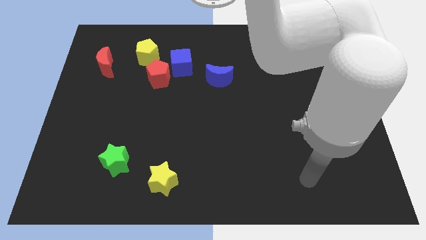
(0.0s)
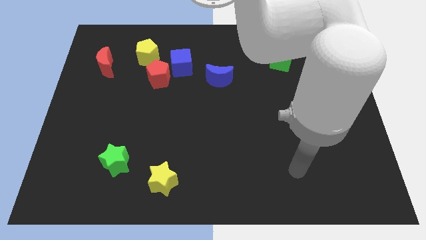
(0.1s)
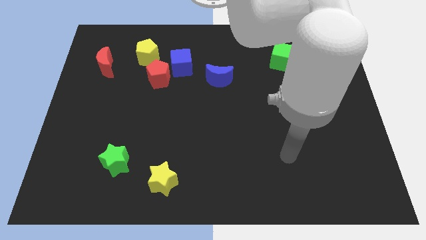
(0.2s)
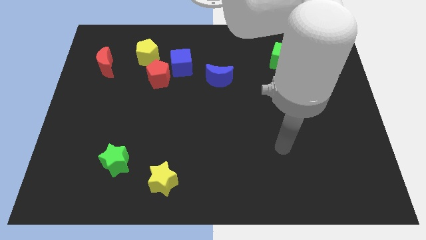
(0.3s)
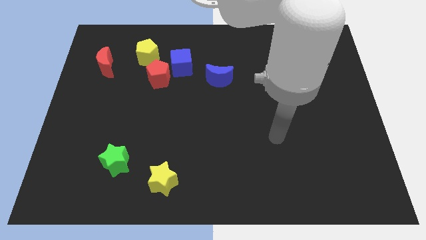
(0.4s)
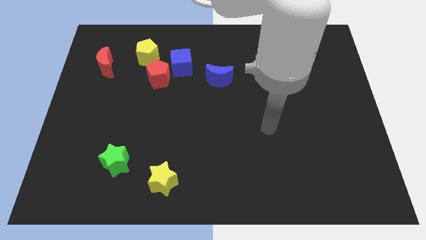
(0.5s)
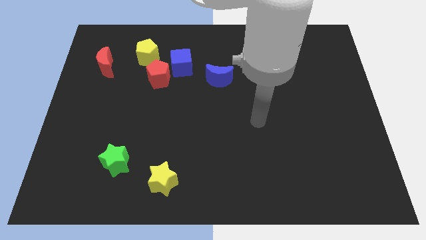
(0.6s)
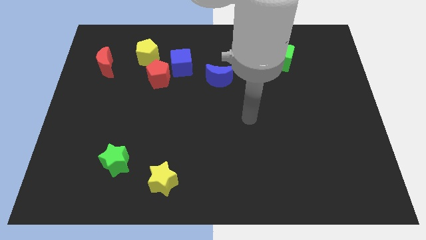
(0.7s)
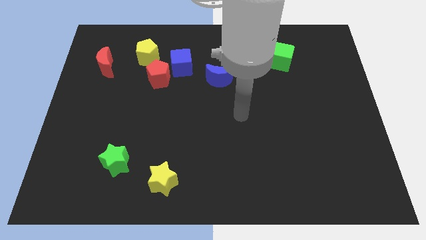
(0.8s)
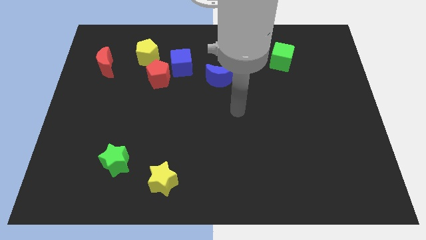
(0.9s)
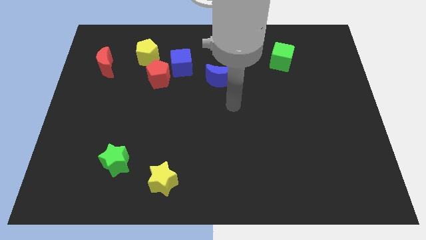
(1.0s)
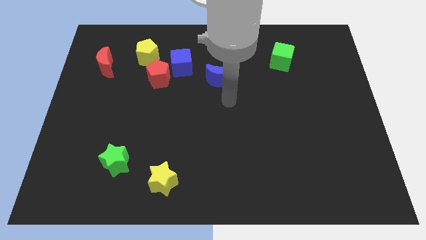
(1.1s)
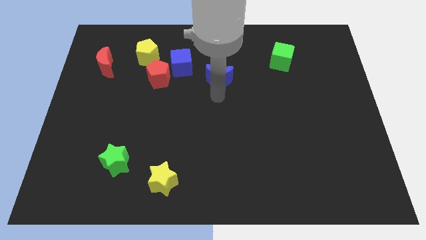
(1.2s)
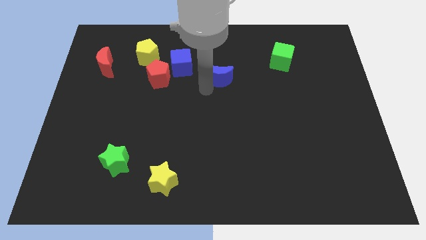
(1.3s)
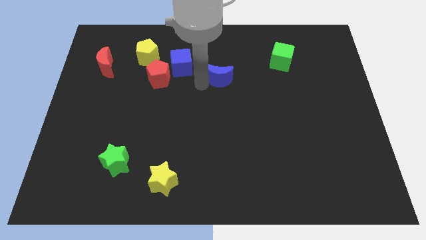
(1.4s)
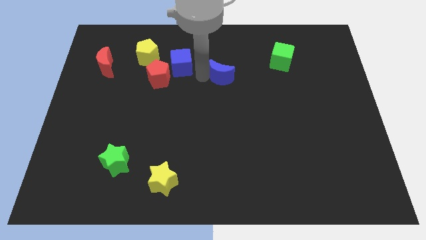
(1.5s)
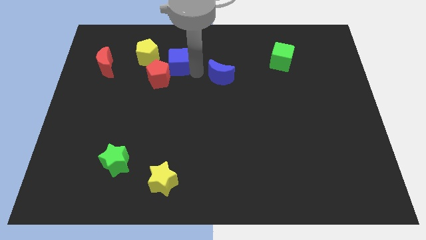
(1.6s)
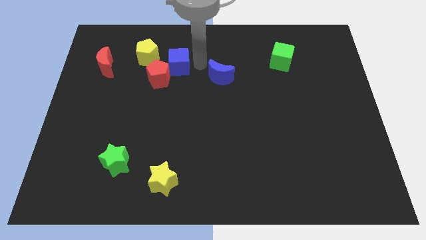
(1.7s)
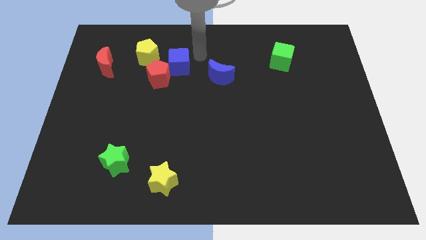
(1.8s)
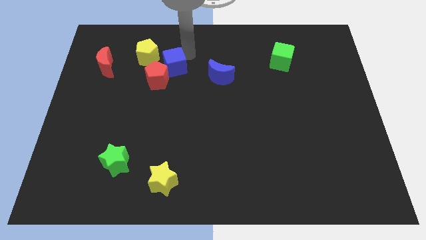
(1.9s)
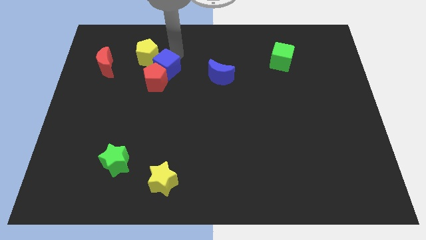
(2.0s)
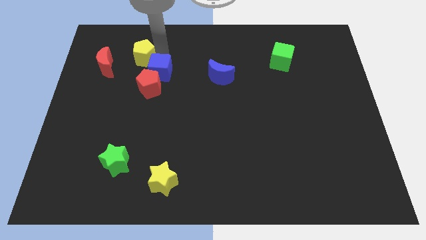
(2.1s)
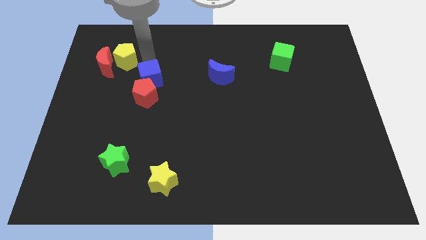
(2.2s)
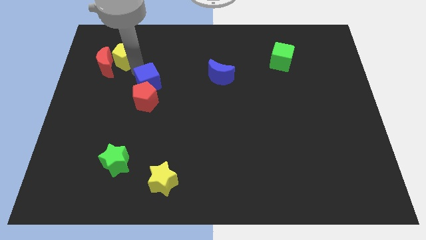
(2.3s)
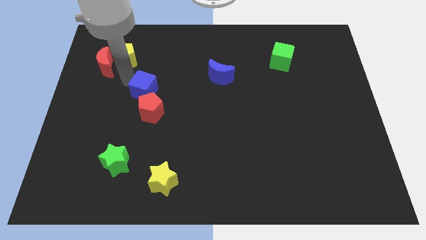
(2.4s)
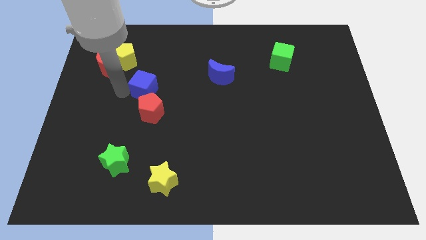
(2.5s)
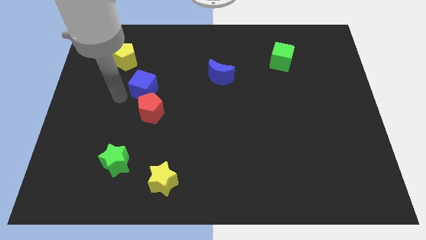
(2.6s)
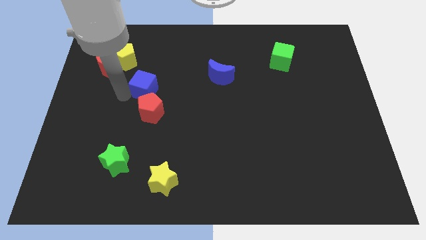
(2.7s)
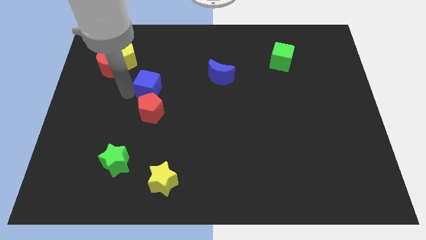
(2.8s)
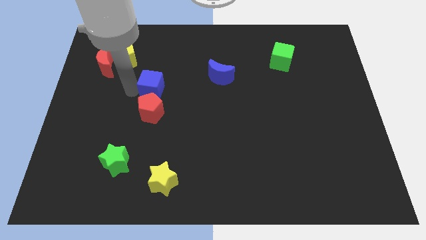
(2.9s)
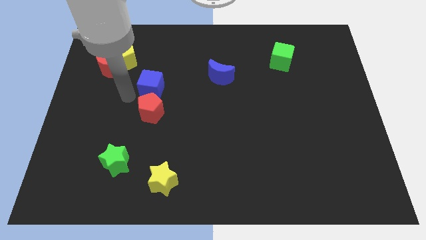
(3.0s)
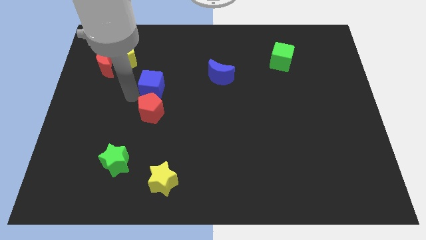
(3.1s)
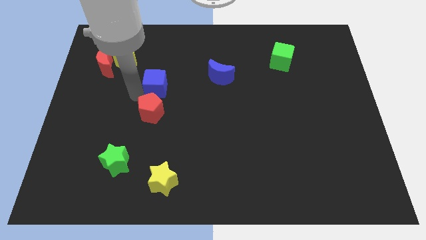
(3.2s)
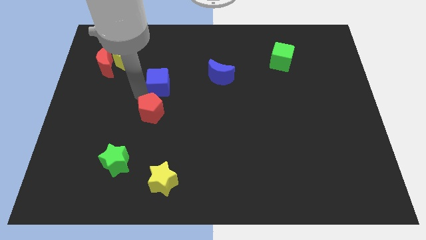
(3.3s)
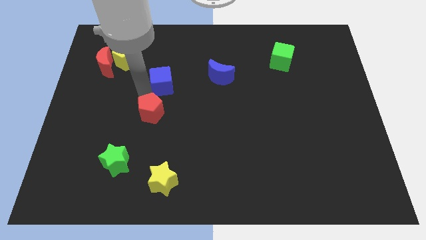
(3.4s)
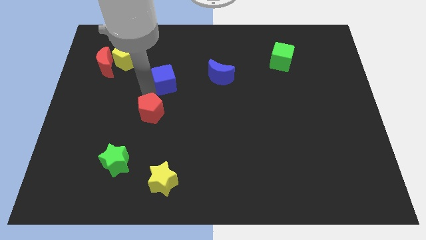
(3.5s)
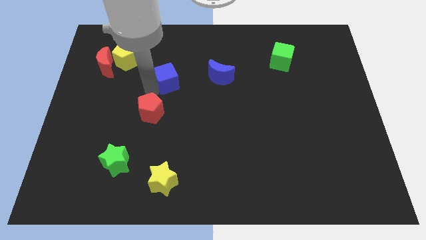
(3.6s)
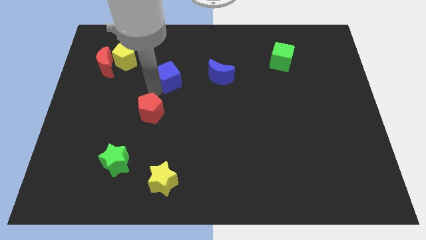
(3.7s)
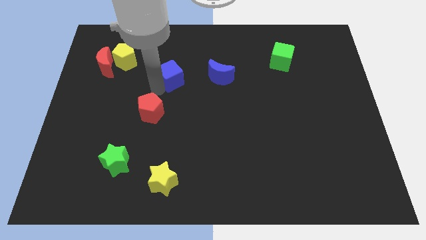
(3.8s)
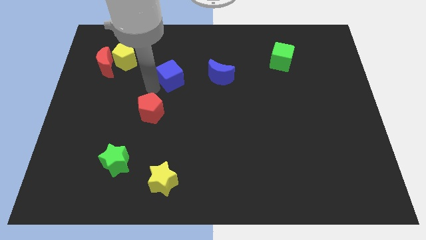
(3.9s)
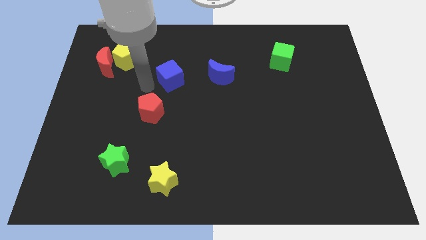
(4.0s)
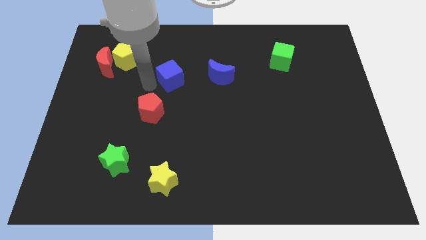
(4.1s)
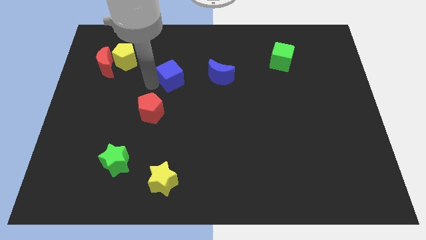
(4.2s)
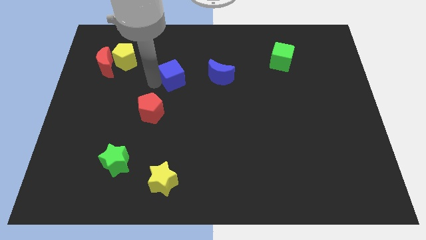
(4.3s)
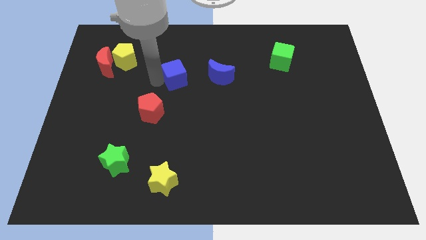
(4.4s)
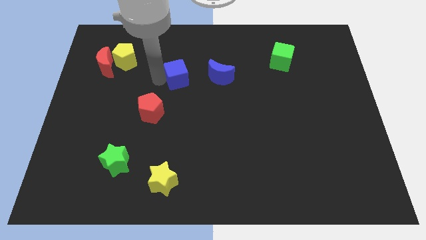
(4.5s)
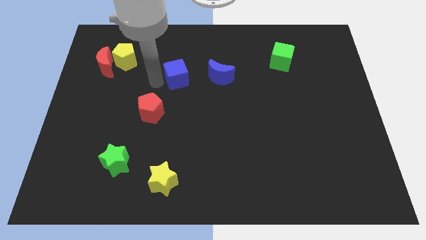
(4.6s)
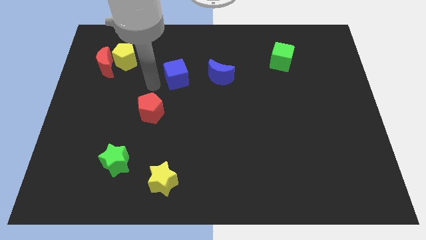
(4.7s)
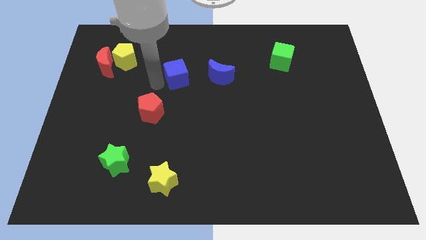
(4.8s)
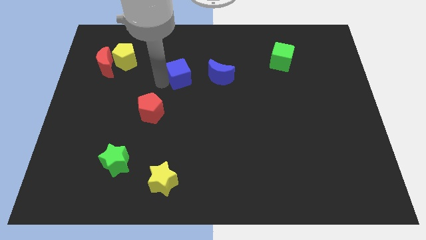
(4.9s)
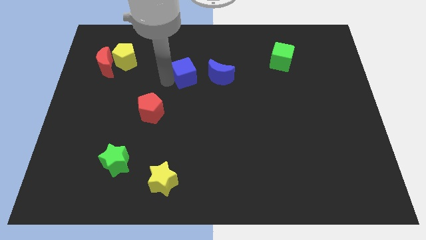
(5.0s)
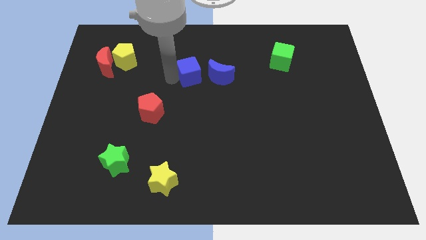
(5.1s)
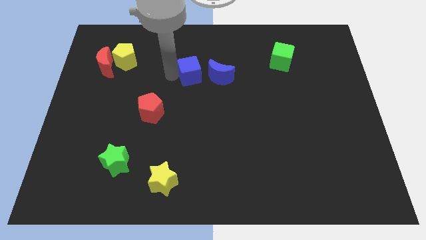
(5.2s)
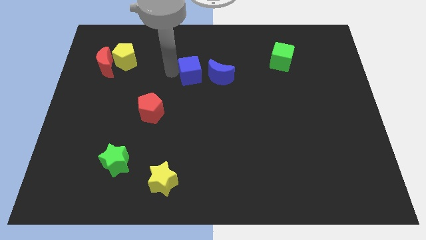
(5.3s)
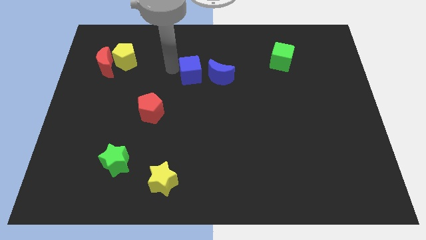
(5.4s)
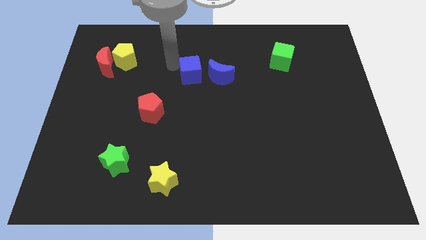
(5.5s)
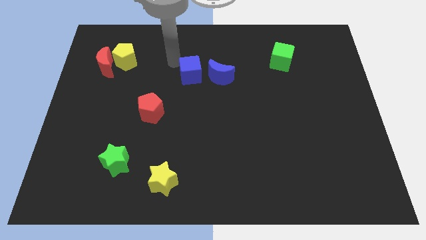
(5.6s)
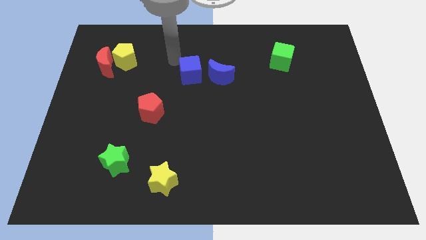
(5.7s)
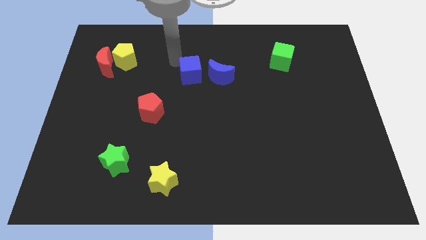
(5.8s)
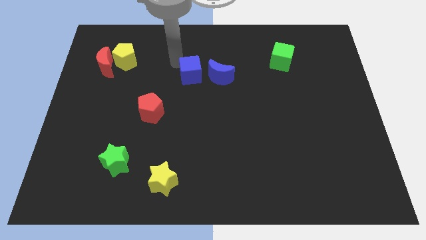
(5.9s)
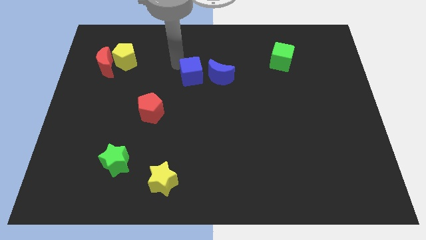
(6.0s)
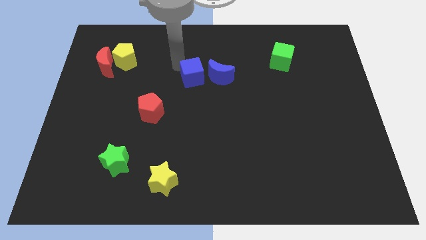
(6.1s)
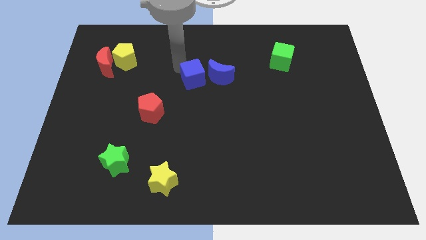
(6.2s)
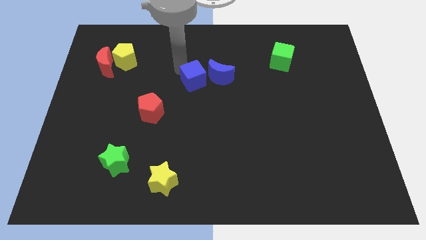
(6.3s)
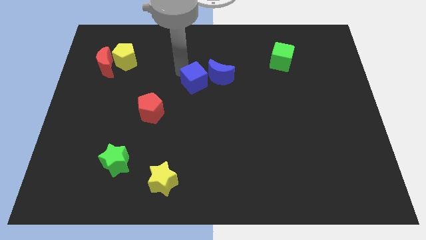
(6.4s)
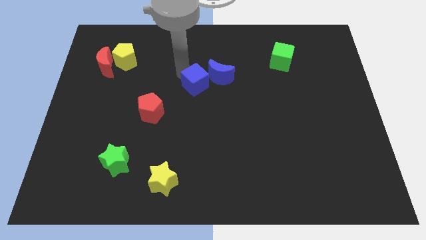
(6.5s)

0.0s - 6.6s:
slide the blue cube down and right slightly

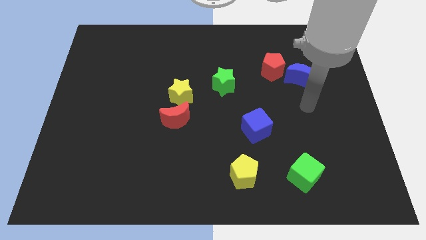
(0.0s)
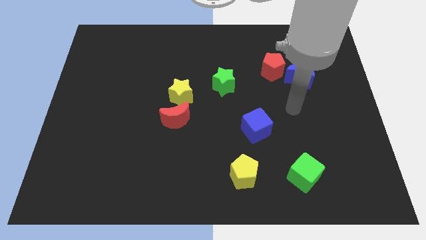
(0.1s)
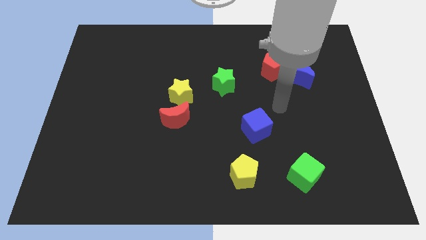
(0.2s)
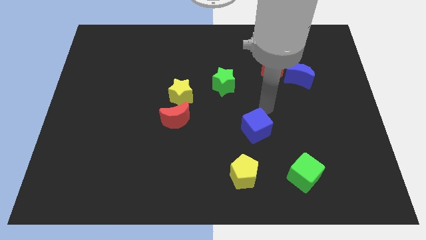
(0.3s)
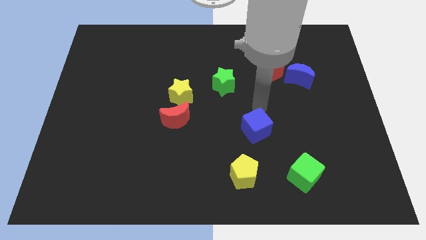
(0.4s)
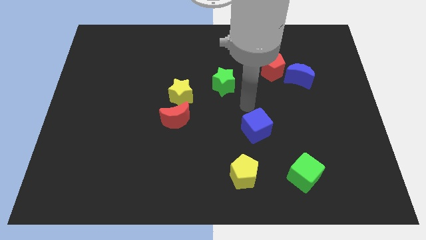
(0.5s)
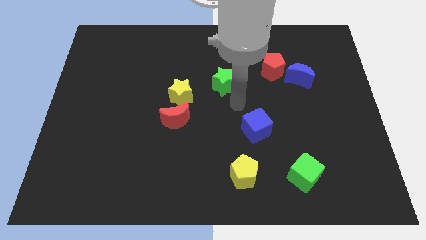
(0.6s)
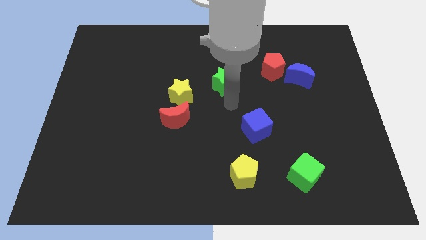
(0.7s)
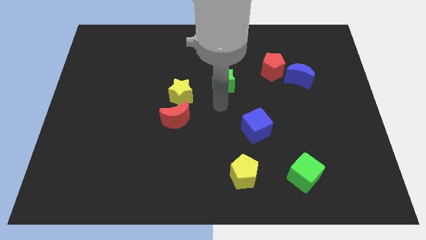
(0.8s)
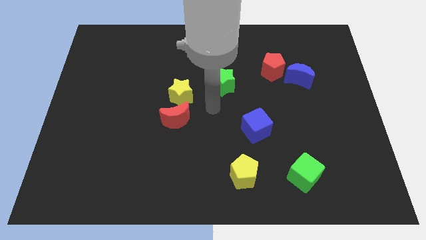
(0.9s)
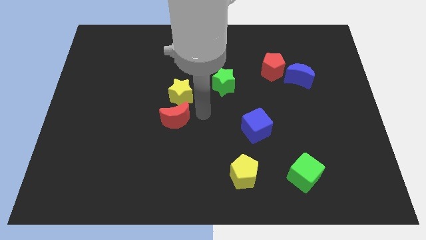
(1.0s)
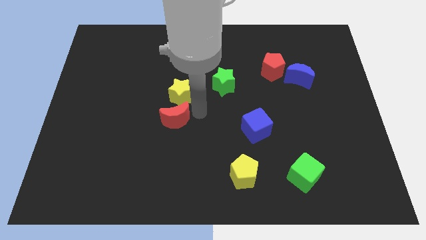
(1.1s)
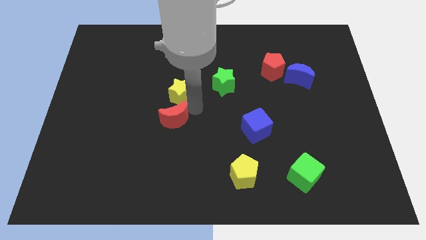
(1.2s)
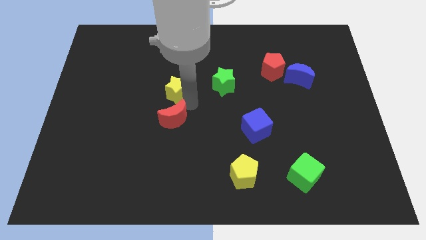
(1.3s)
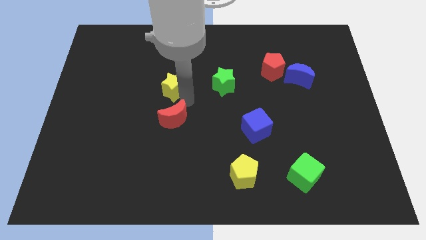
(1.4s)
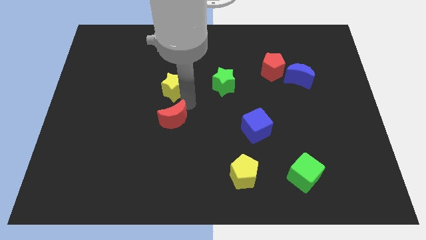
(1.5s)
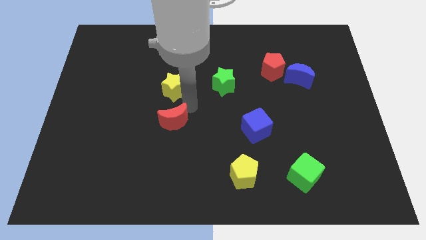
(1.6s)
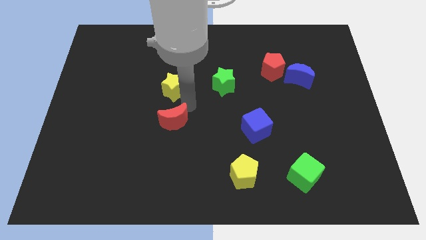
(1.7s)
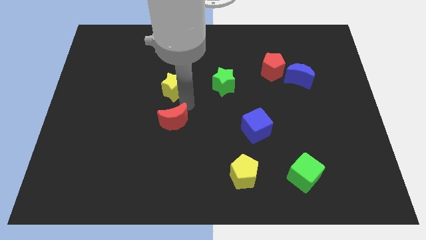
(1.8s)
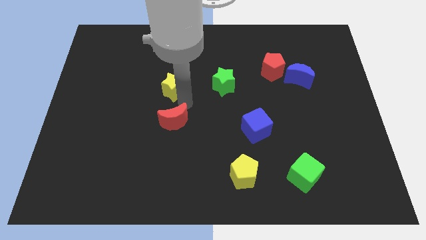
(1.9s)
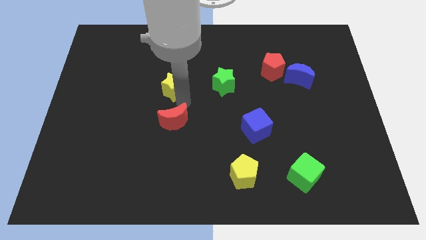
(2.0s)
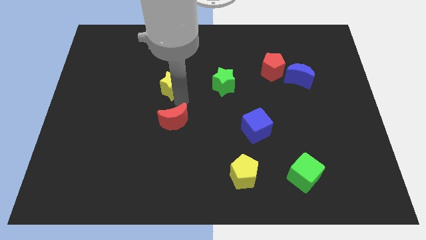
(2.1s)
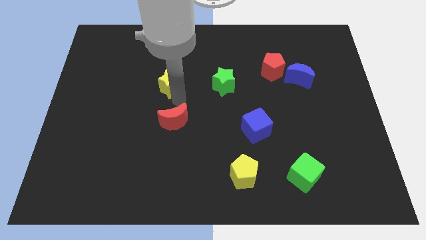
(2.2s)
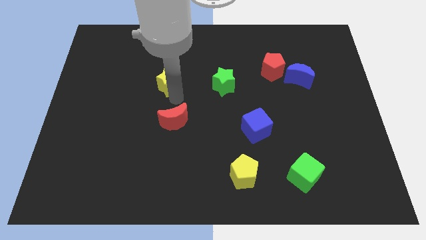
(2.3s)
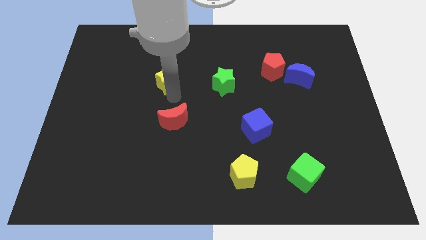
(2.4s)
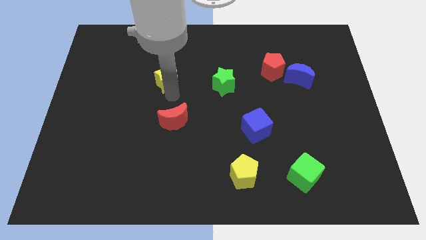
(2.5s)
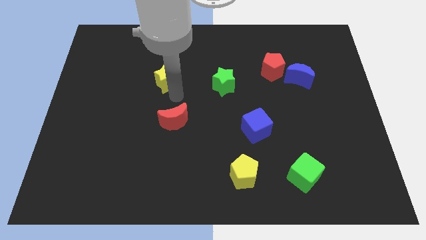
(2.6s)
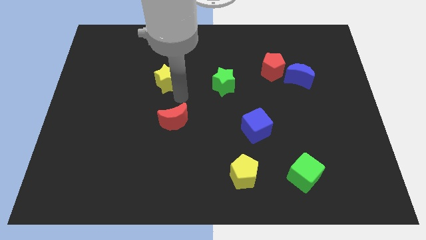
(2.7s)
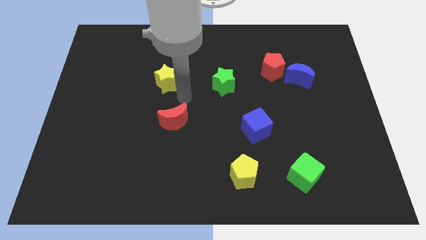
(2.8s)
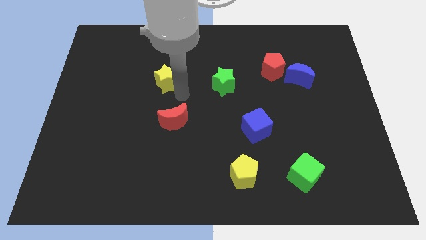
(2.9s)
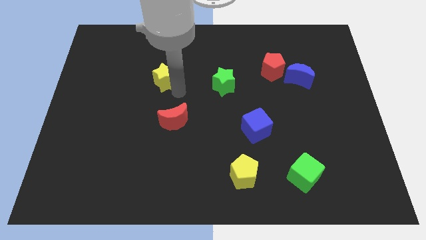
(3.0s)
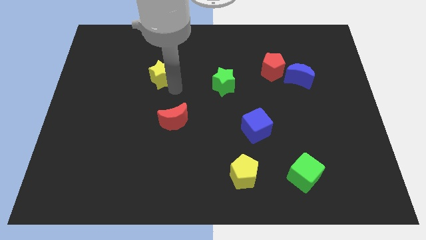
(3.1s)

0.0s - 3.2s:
push the yellow star a bit upwards and then to the left
